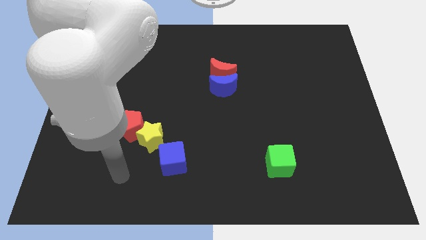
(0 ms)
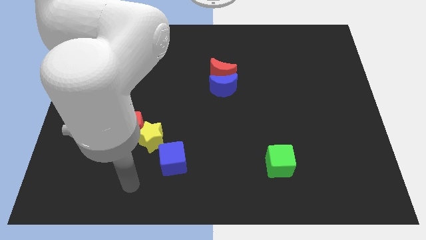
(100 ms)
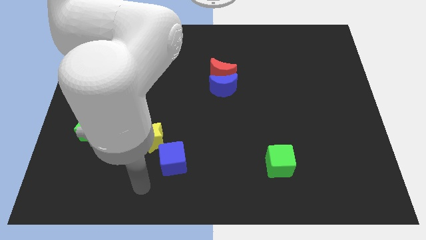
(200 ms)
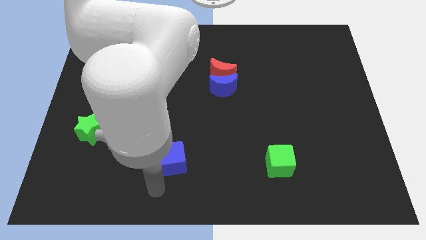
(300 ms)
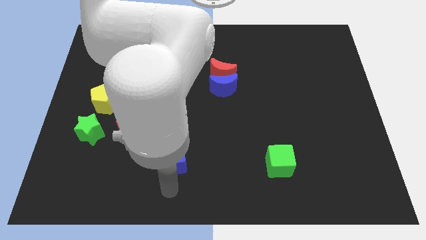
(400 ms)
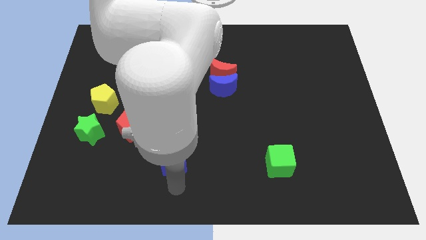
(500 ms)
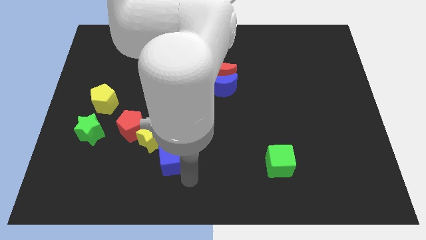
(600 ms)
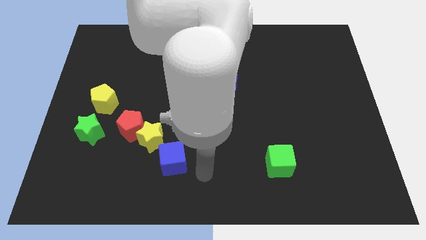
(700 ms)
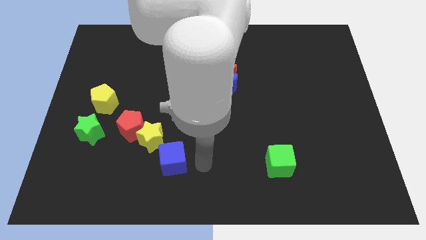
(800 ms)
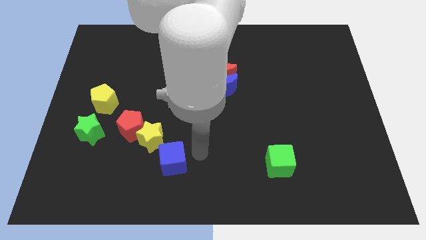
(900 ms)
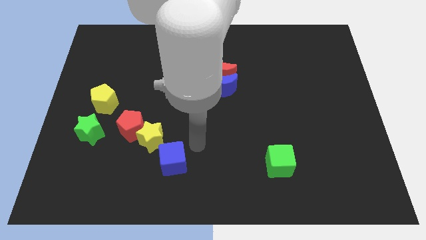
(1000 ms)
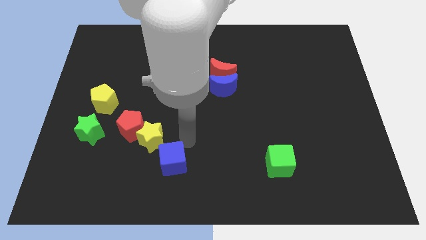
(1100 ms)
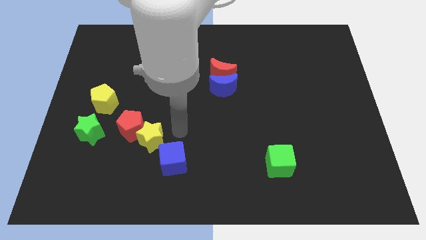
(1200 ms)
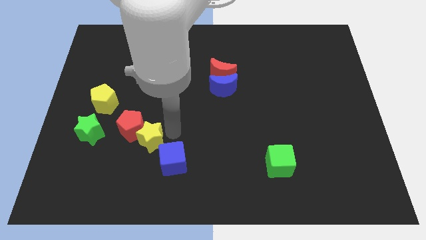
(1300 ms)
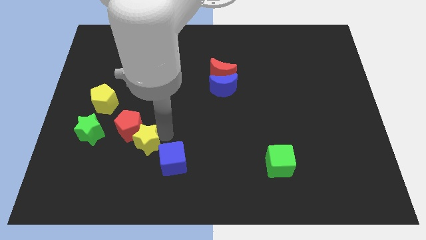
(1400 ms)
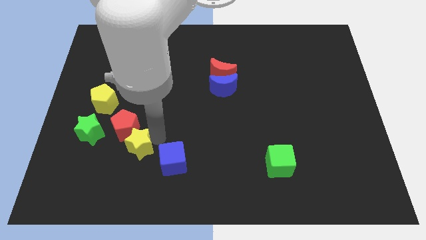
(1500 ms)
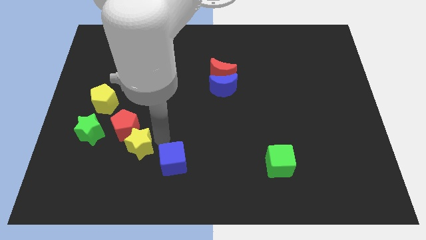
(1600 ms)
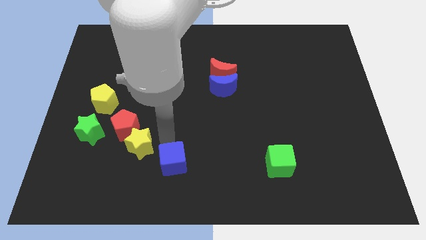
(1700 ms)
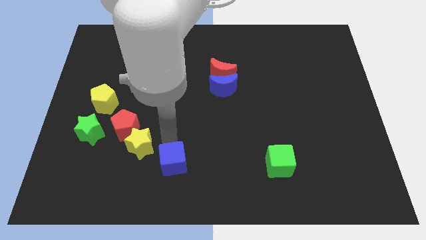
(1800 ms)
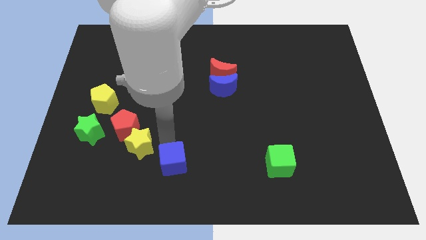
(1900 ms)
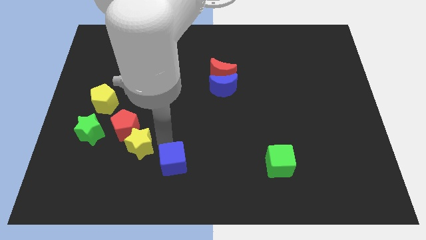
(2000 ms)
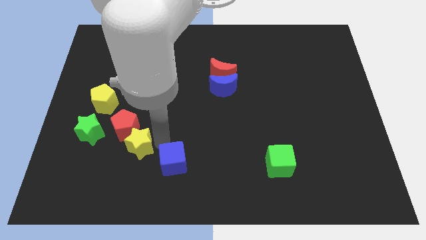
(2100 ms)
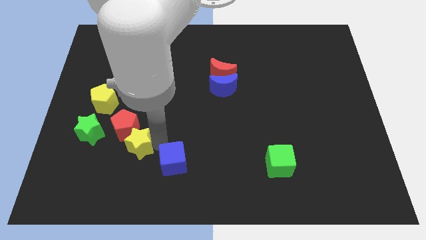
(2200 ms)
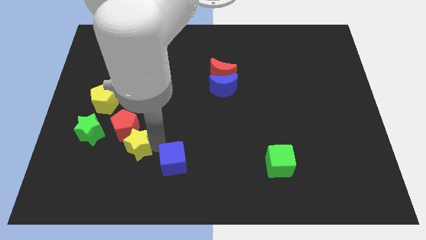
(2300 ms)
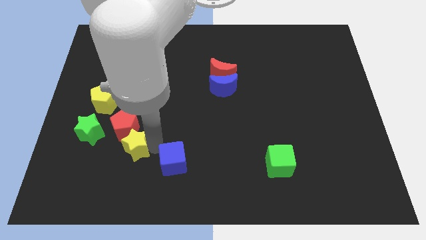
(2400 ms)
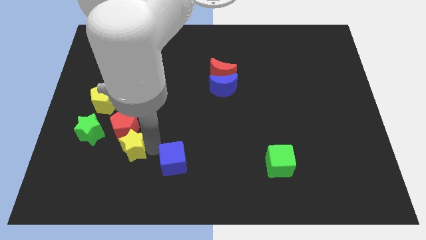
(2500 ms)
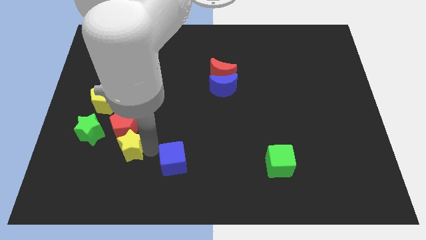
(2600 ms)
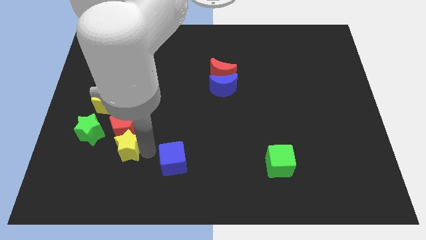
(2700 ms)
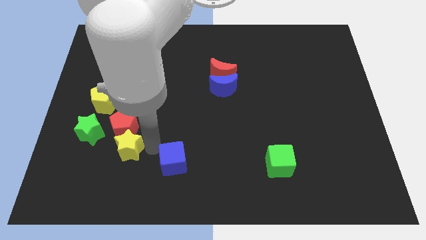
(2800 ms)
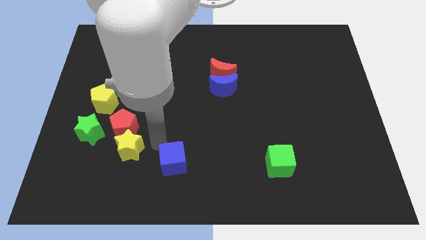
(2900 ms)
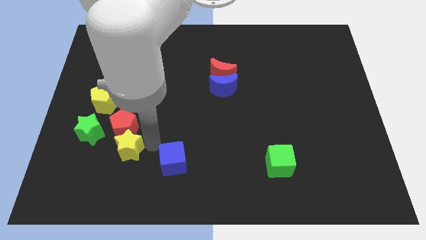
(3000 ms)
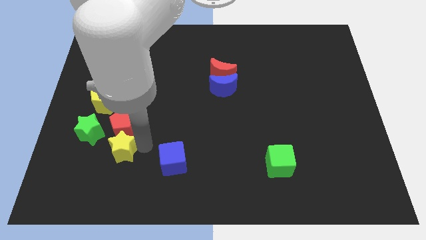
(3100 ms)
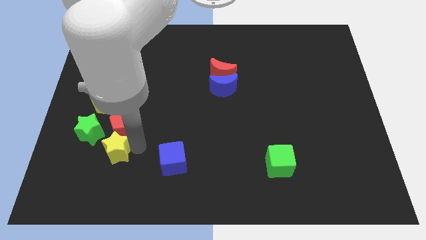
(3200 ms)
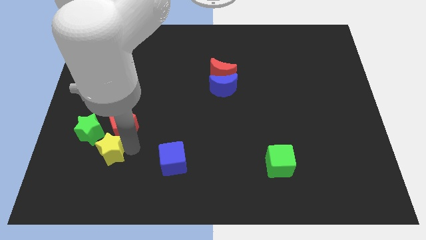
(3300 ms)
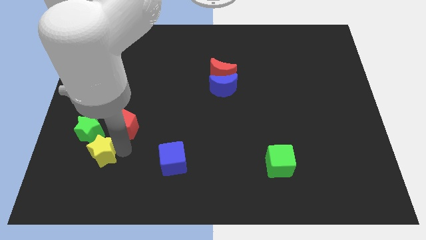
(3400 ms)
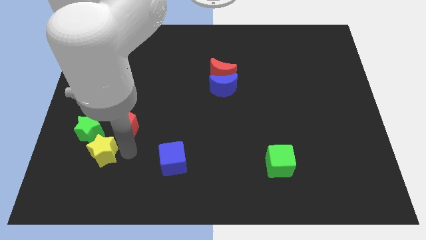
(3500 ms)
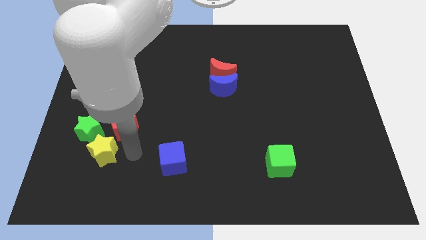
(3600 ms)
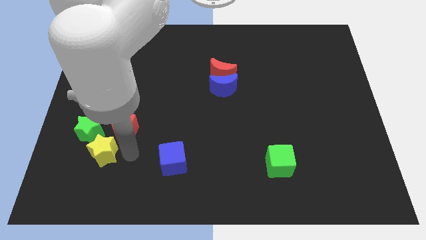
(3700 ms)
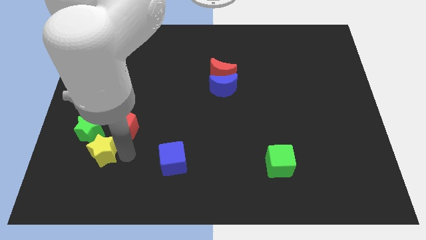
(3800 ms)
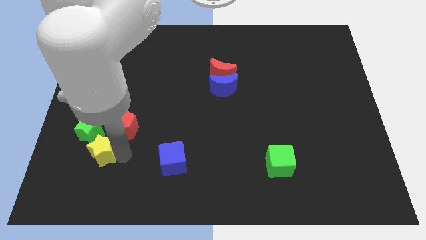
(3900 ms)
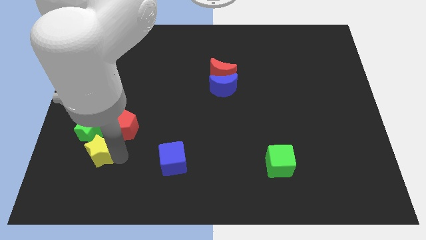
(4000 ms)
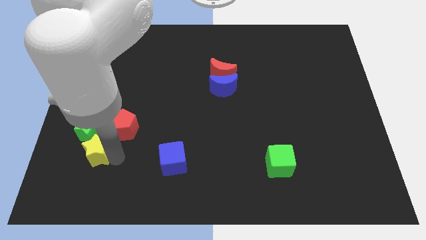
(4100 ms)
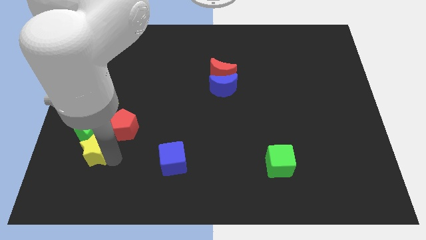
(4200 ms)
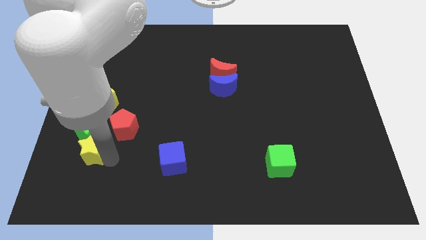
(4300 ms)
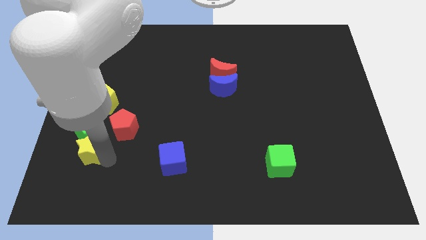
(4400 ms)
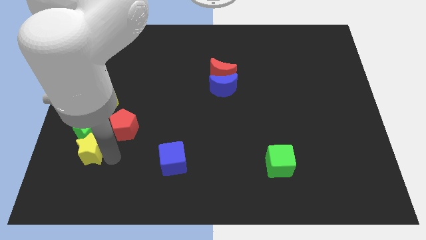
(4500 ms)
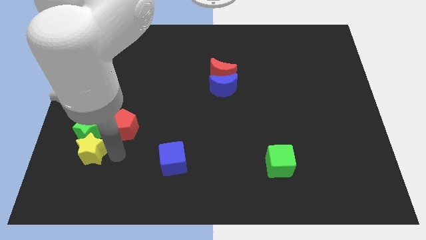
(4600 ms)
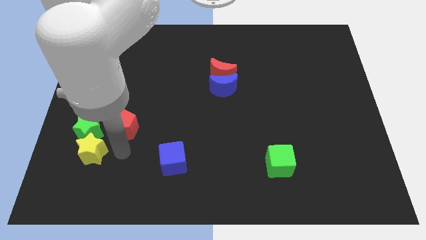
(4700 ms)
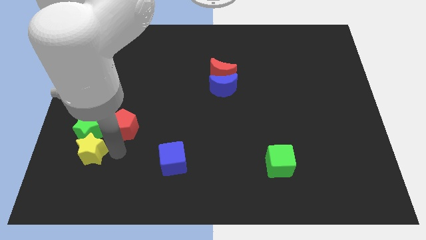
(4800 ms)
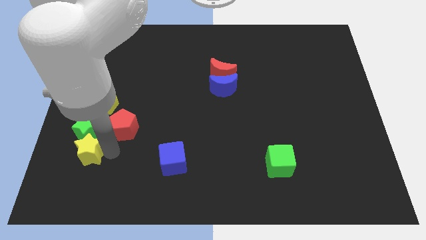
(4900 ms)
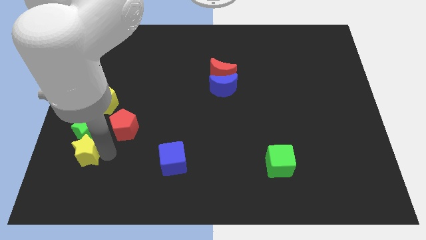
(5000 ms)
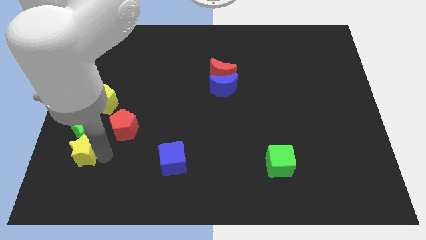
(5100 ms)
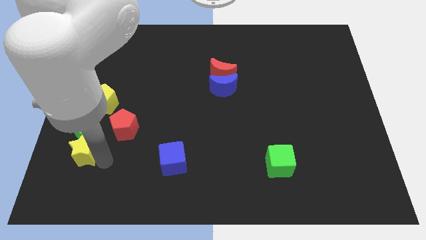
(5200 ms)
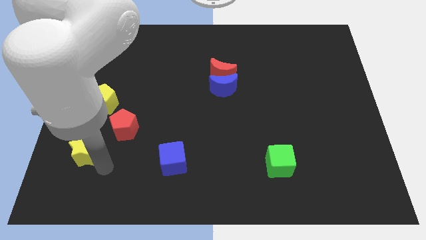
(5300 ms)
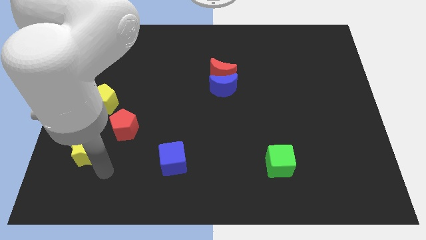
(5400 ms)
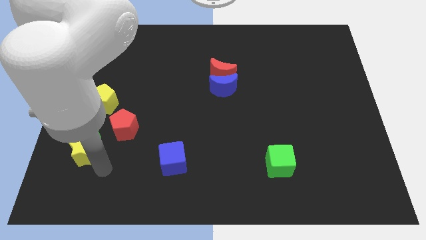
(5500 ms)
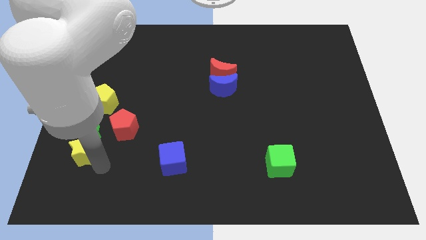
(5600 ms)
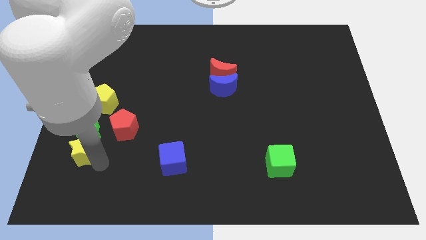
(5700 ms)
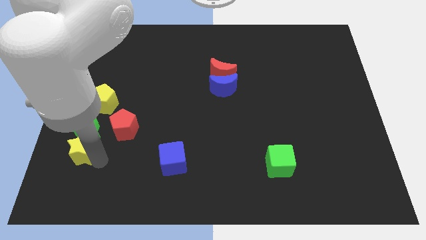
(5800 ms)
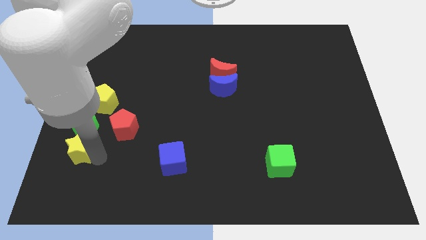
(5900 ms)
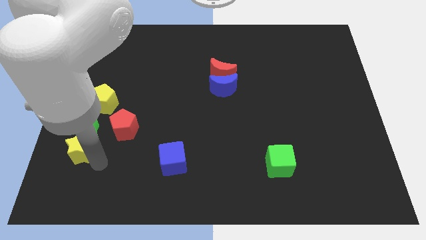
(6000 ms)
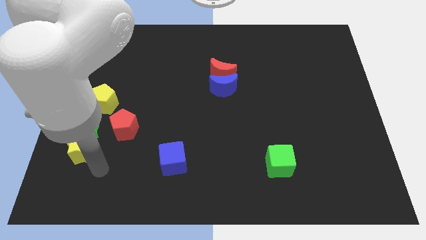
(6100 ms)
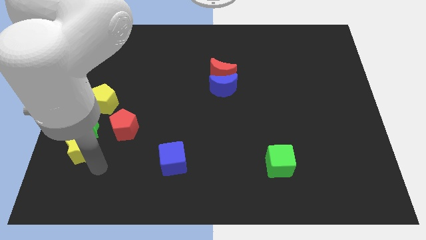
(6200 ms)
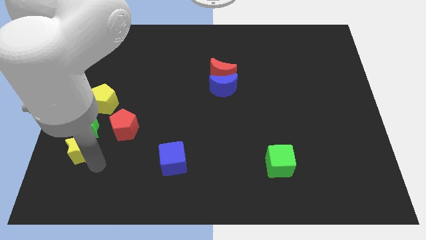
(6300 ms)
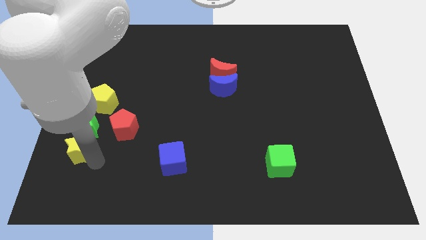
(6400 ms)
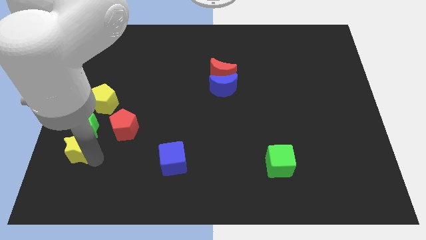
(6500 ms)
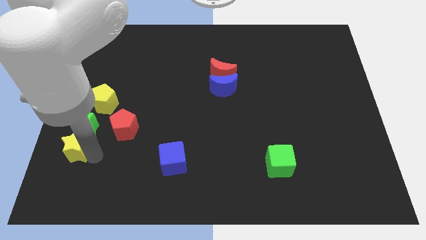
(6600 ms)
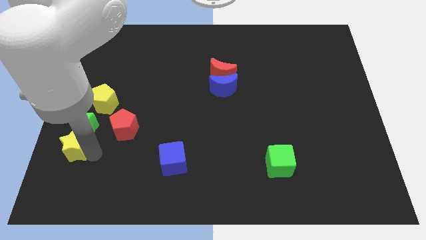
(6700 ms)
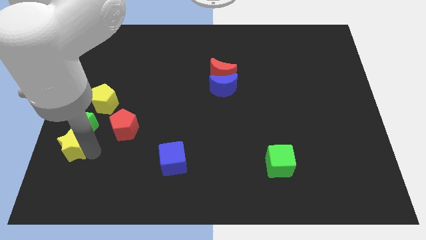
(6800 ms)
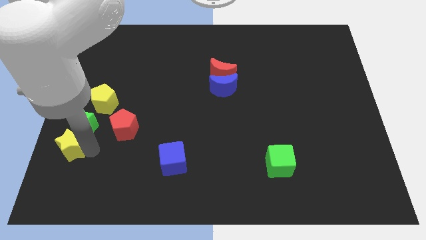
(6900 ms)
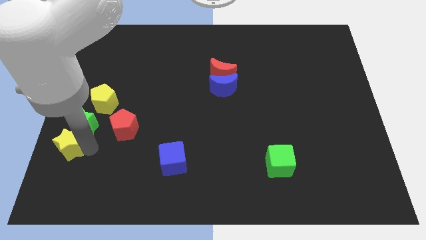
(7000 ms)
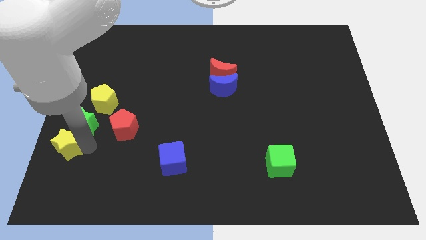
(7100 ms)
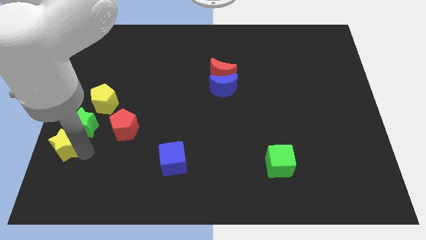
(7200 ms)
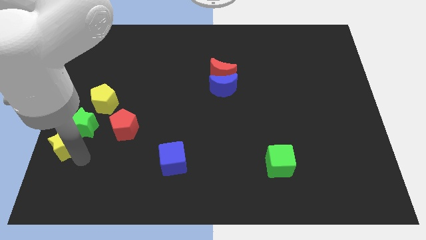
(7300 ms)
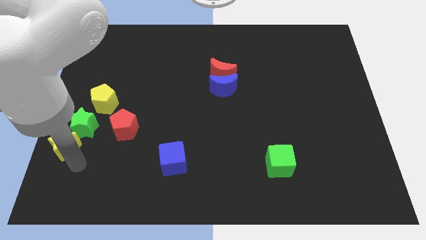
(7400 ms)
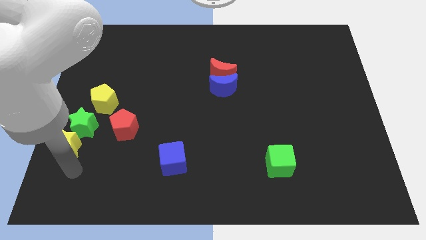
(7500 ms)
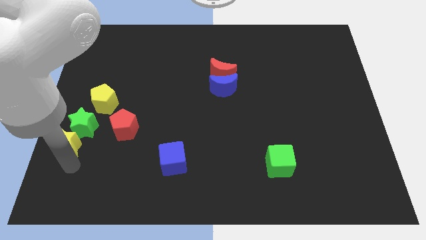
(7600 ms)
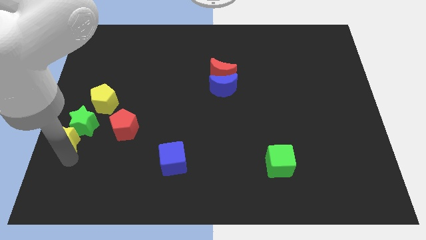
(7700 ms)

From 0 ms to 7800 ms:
slide the yellow star to the left side
